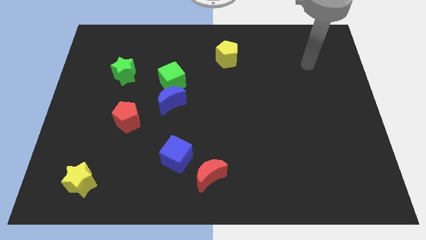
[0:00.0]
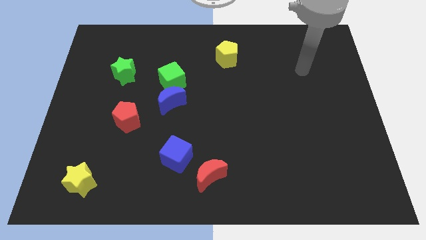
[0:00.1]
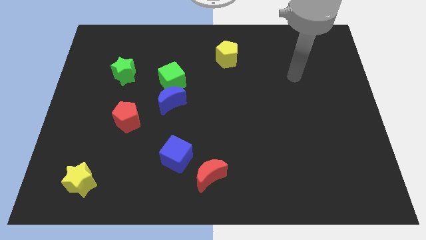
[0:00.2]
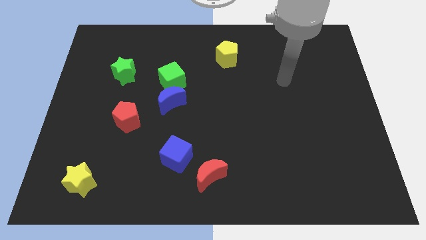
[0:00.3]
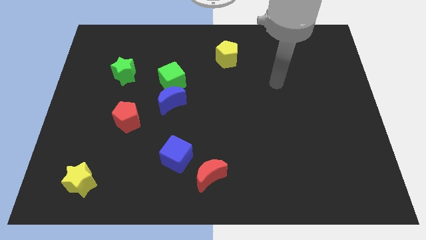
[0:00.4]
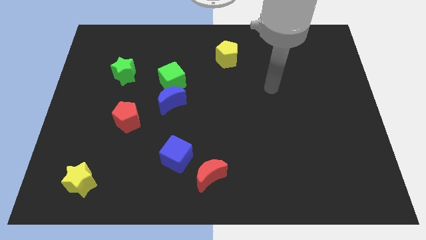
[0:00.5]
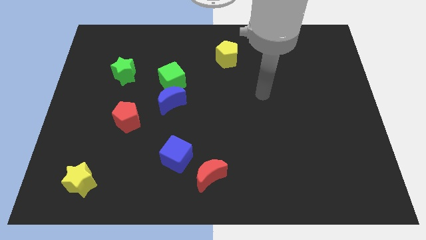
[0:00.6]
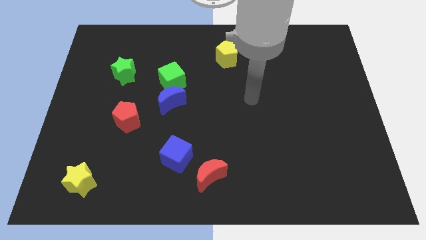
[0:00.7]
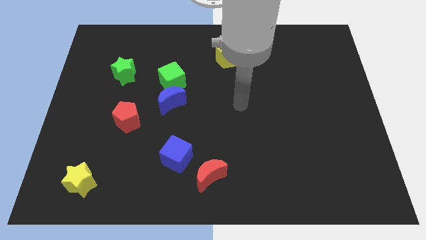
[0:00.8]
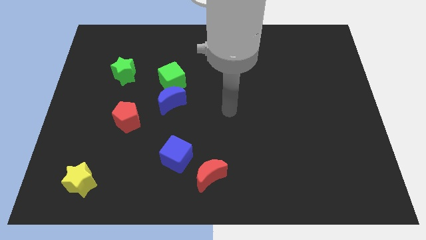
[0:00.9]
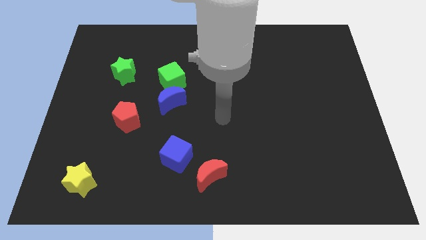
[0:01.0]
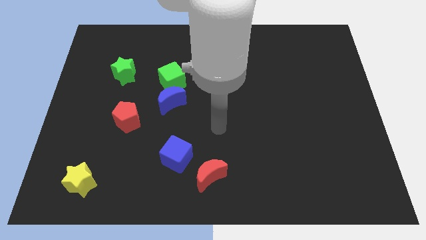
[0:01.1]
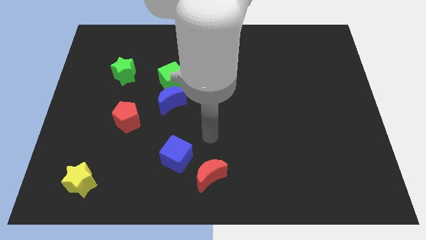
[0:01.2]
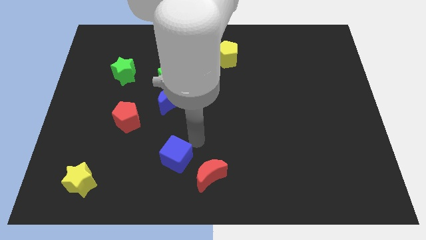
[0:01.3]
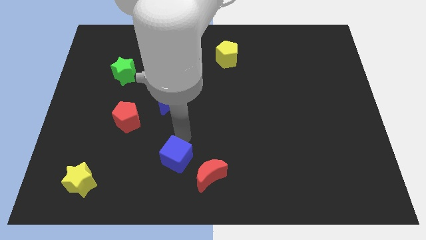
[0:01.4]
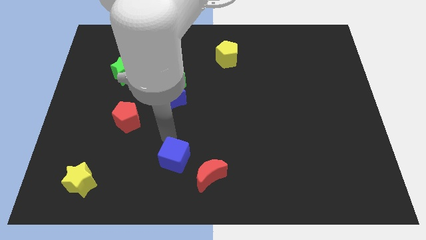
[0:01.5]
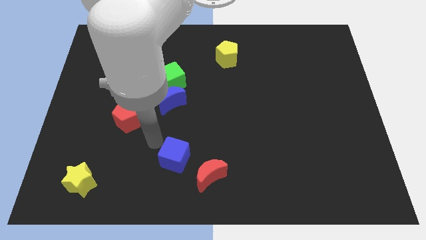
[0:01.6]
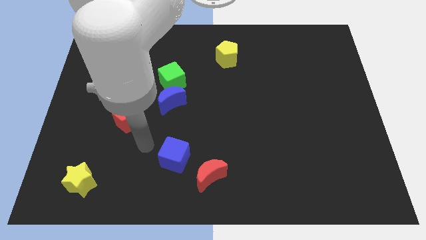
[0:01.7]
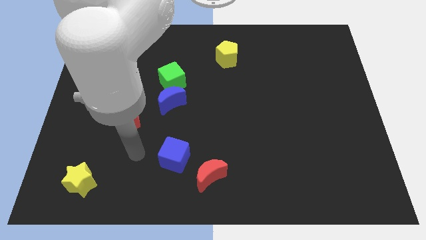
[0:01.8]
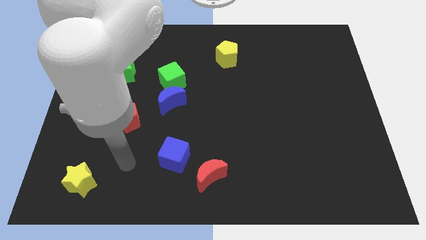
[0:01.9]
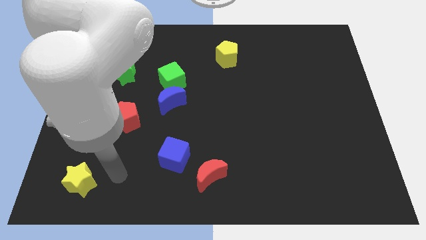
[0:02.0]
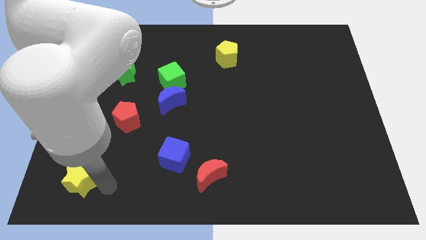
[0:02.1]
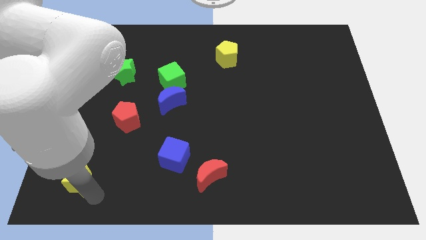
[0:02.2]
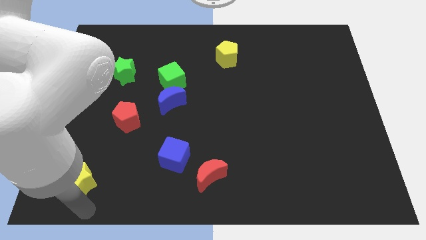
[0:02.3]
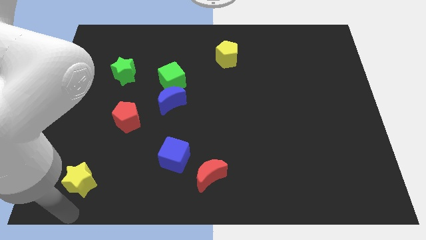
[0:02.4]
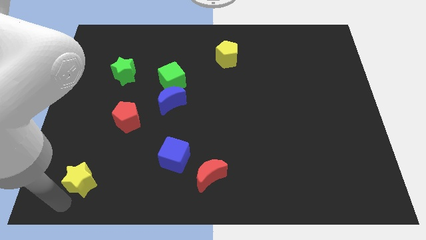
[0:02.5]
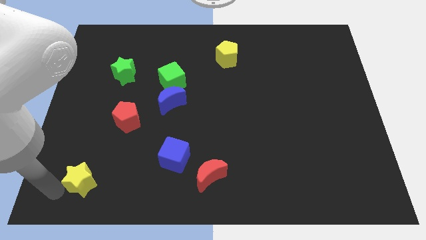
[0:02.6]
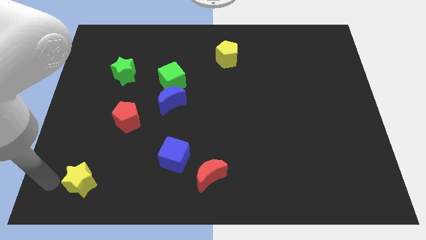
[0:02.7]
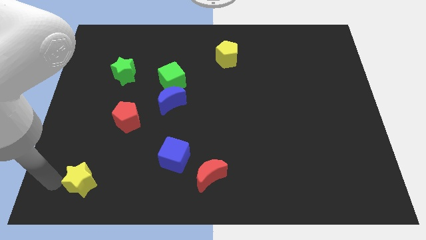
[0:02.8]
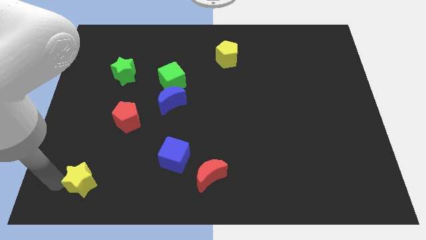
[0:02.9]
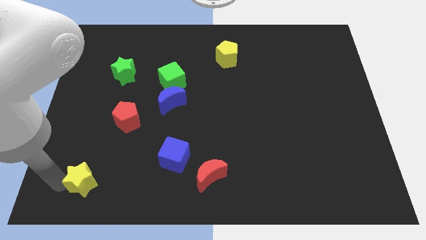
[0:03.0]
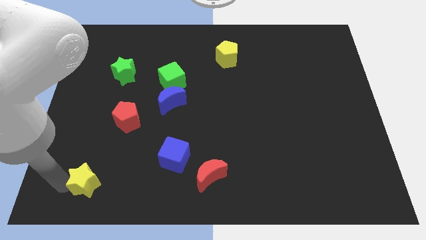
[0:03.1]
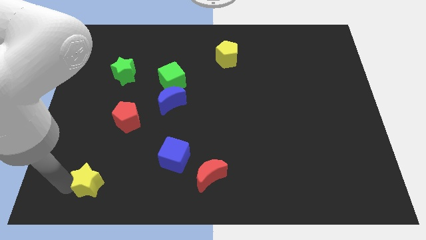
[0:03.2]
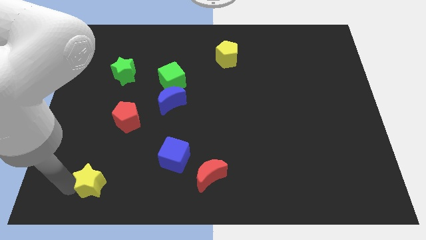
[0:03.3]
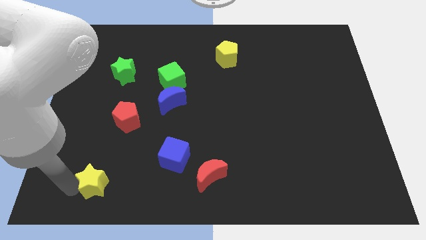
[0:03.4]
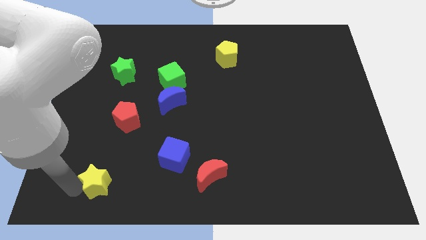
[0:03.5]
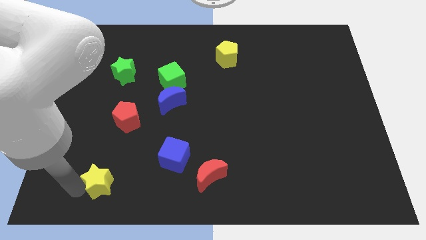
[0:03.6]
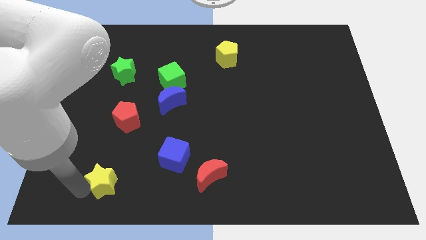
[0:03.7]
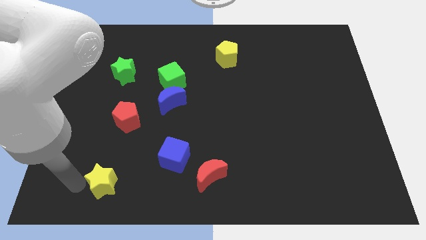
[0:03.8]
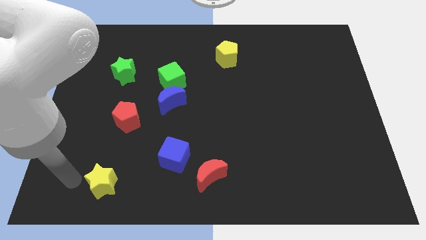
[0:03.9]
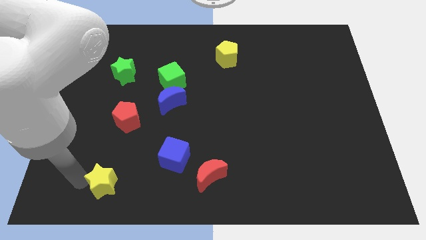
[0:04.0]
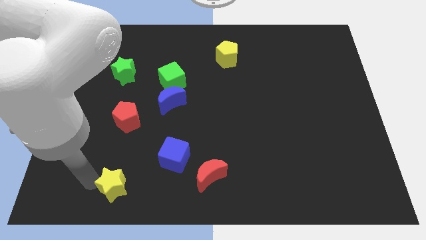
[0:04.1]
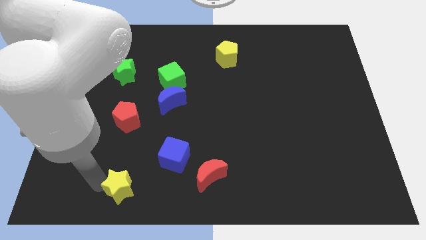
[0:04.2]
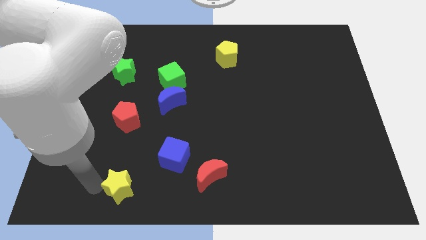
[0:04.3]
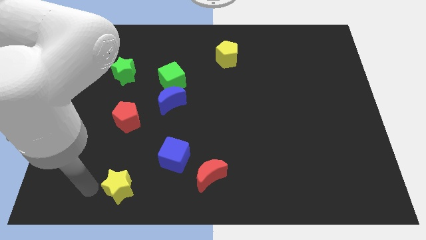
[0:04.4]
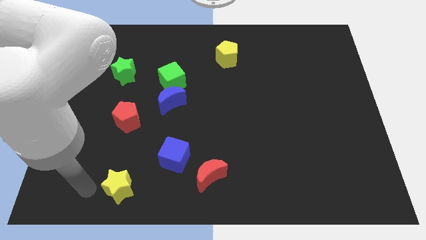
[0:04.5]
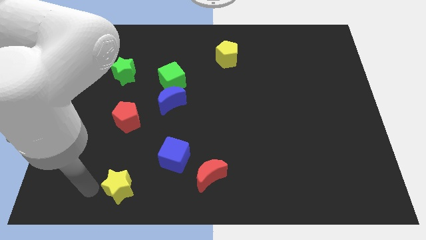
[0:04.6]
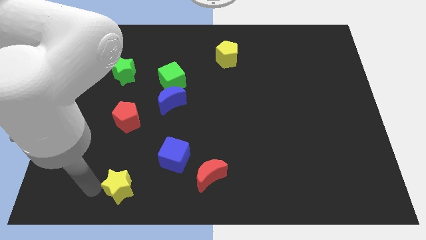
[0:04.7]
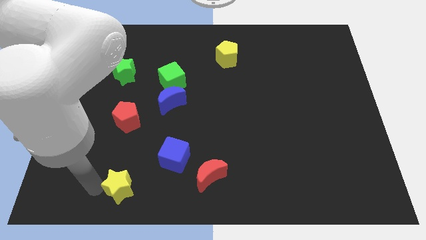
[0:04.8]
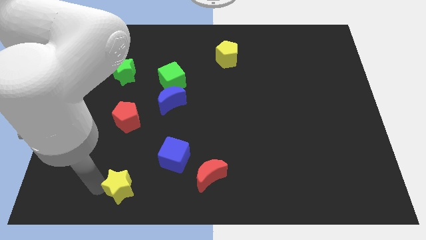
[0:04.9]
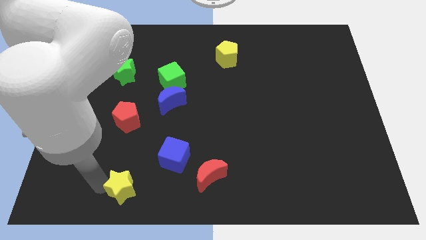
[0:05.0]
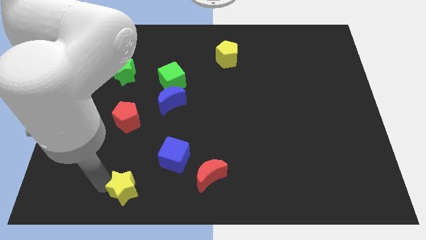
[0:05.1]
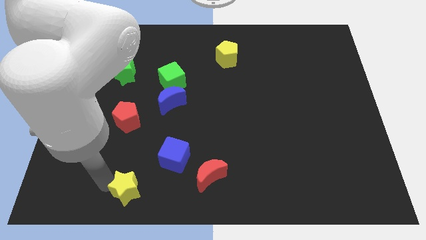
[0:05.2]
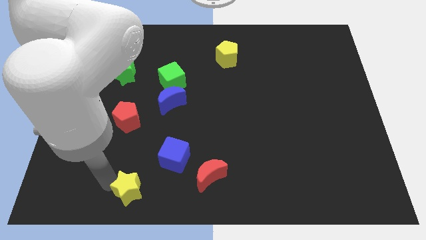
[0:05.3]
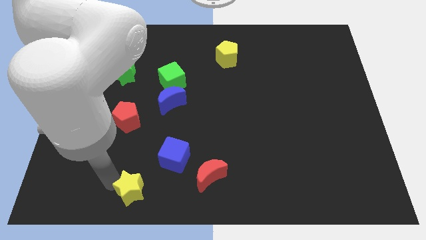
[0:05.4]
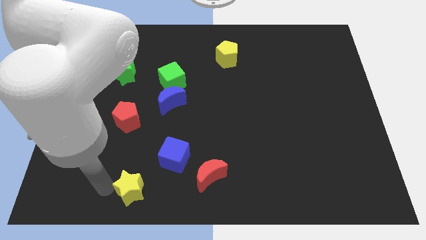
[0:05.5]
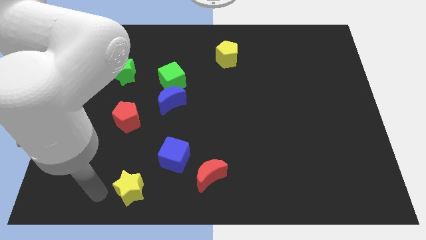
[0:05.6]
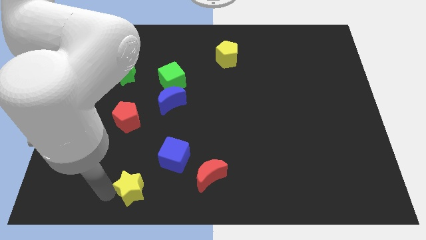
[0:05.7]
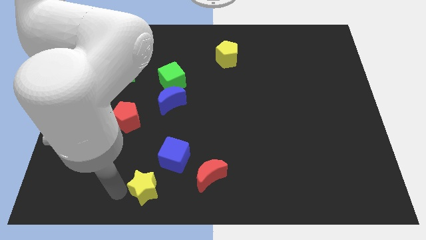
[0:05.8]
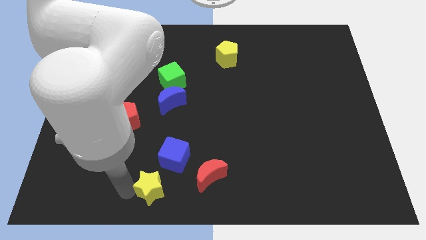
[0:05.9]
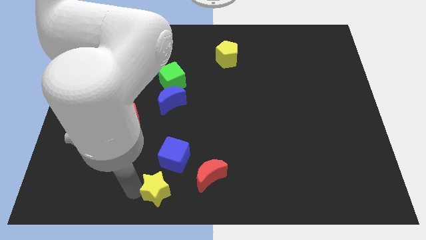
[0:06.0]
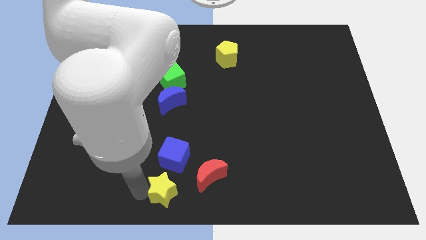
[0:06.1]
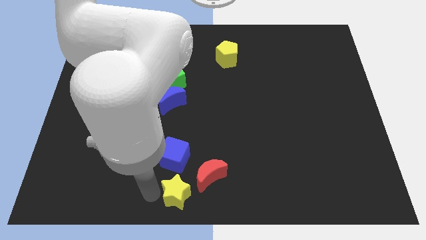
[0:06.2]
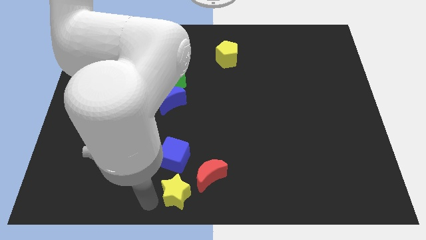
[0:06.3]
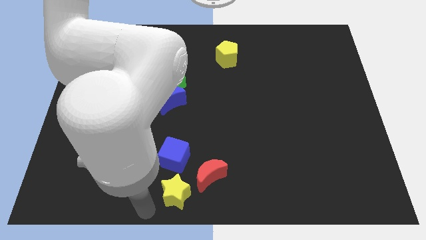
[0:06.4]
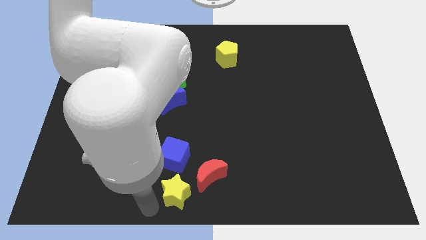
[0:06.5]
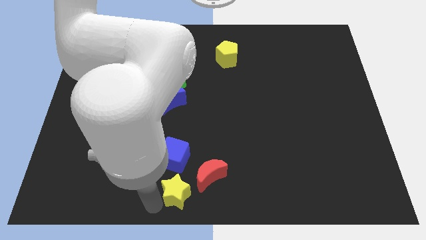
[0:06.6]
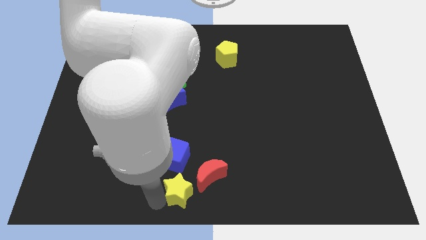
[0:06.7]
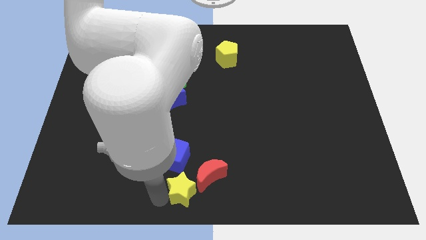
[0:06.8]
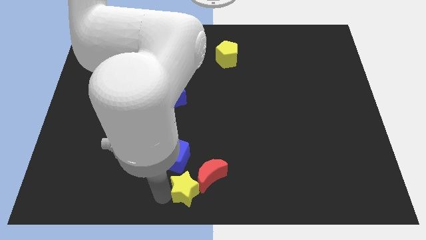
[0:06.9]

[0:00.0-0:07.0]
slide the yellow star to the red moon
